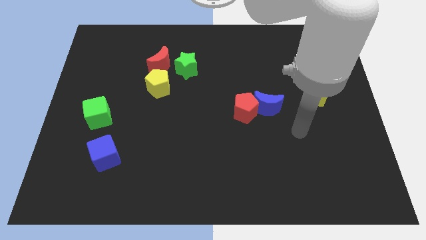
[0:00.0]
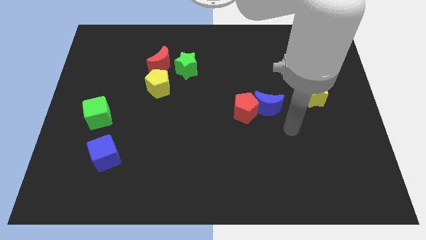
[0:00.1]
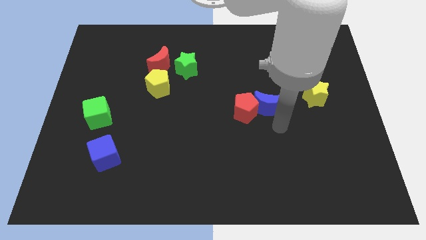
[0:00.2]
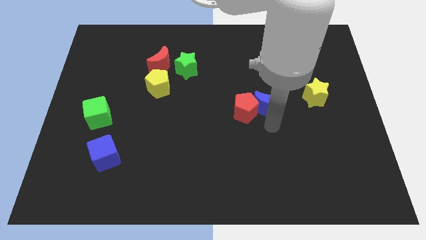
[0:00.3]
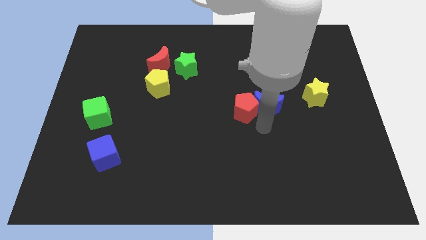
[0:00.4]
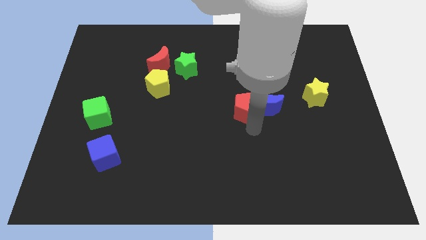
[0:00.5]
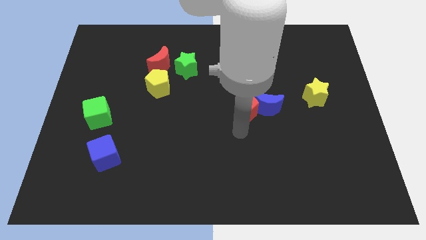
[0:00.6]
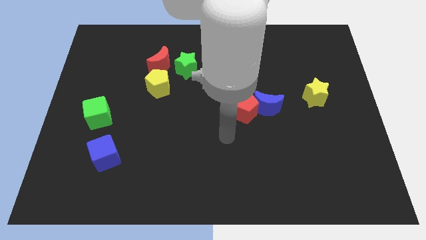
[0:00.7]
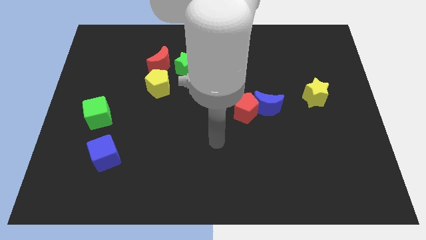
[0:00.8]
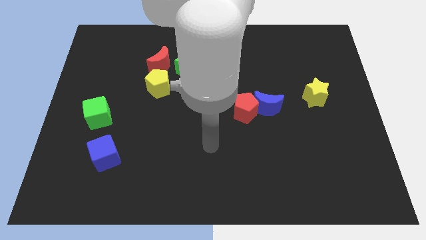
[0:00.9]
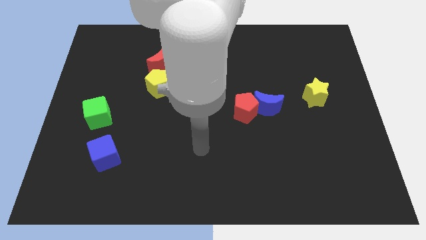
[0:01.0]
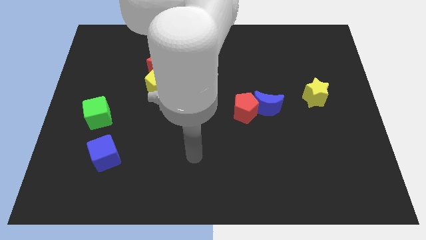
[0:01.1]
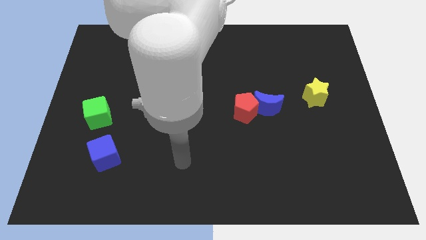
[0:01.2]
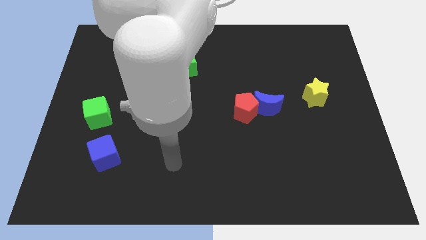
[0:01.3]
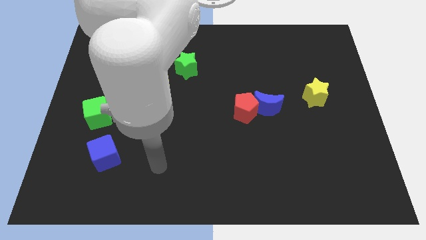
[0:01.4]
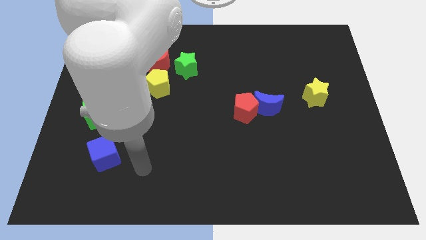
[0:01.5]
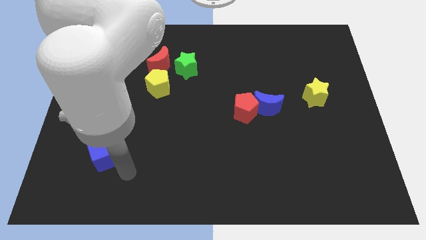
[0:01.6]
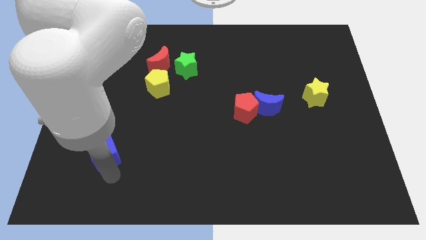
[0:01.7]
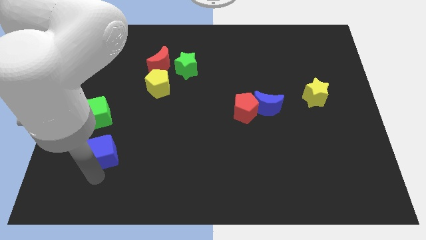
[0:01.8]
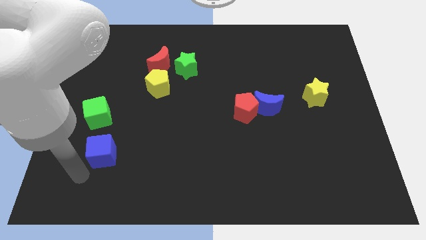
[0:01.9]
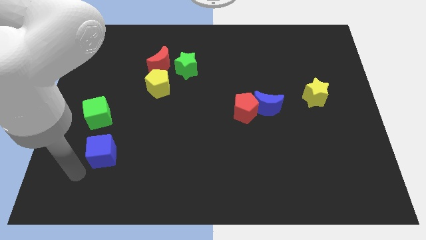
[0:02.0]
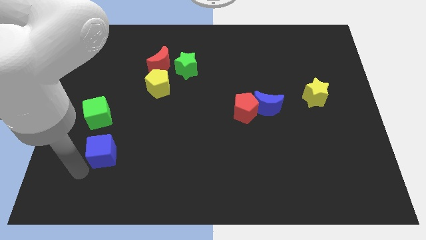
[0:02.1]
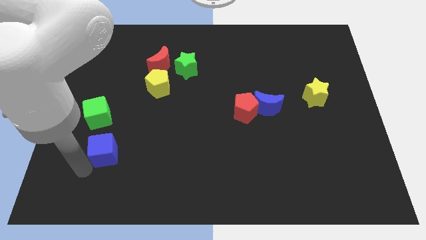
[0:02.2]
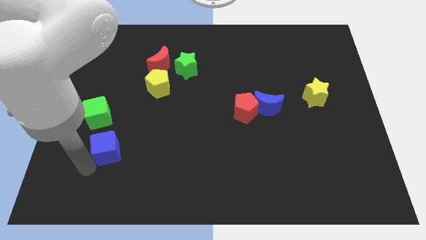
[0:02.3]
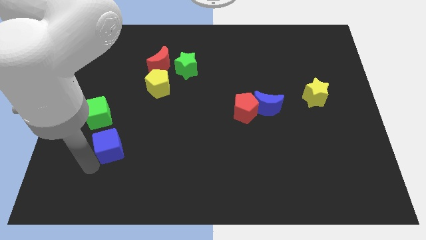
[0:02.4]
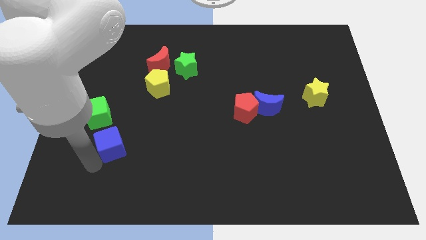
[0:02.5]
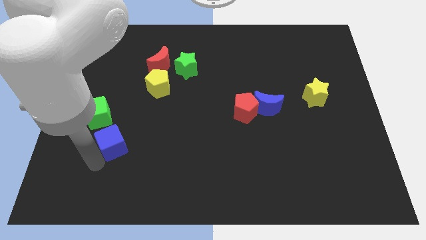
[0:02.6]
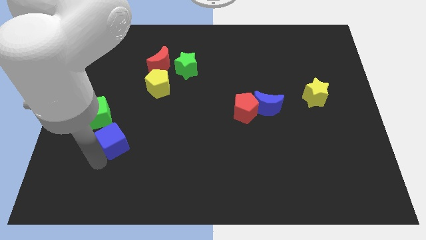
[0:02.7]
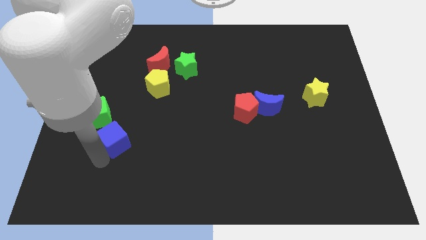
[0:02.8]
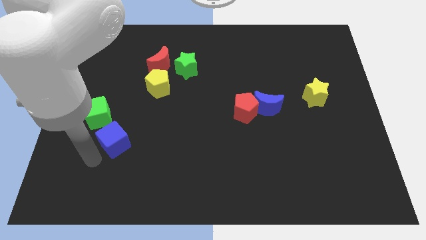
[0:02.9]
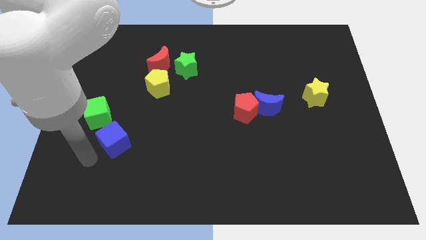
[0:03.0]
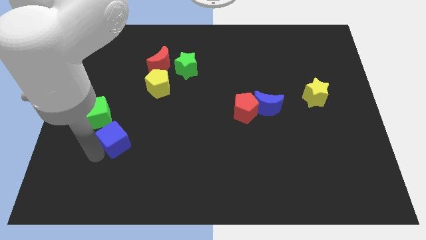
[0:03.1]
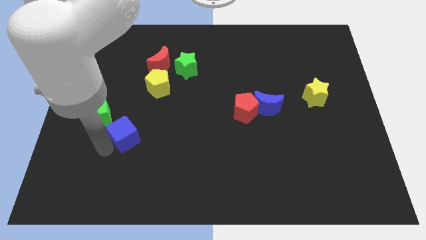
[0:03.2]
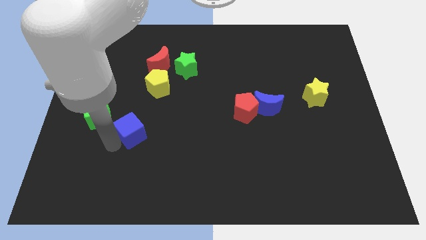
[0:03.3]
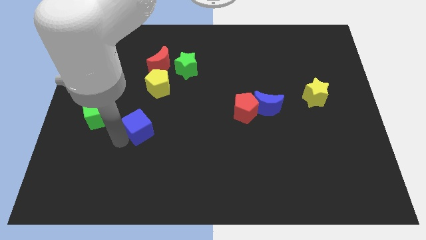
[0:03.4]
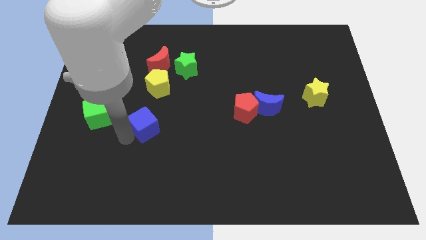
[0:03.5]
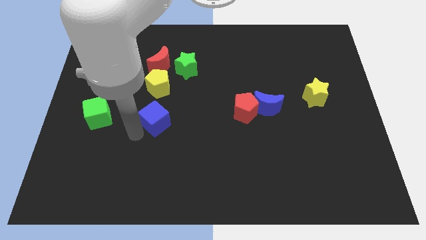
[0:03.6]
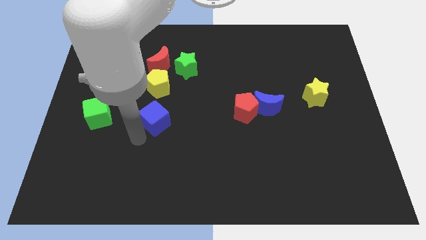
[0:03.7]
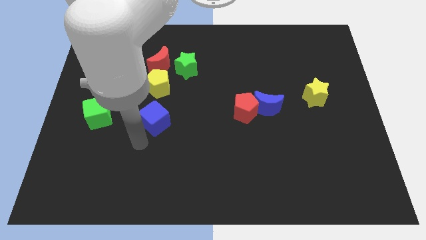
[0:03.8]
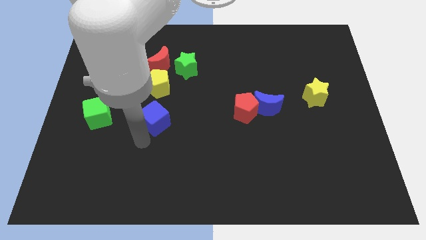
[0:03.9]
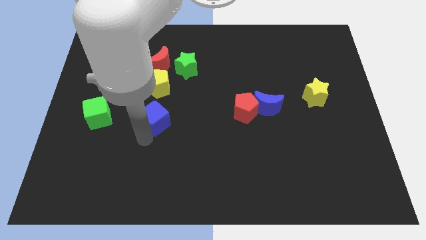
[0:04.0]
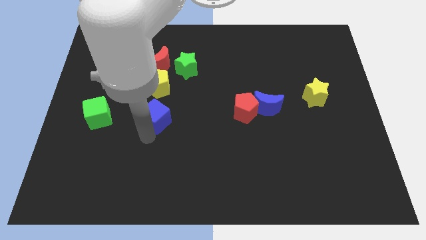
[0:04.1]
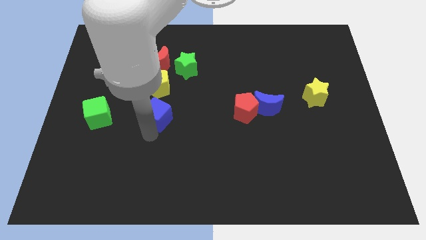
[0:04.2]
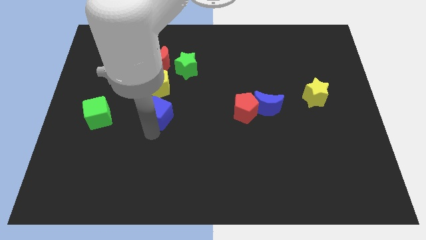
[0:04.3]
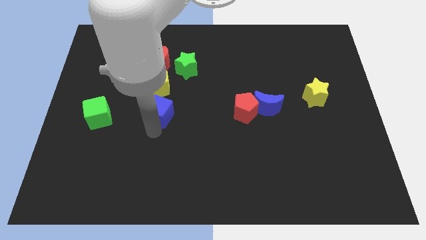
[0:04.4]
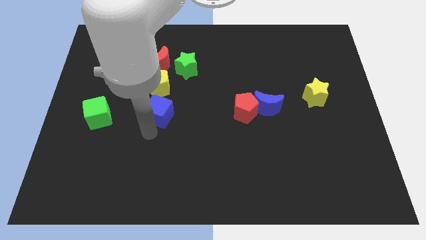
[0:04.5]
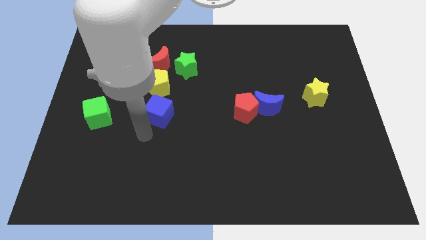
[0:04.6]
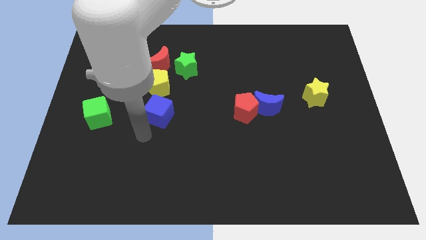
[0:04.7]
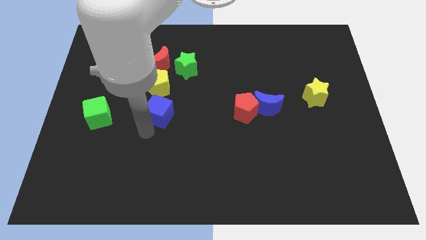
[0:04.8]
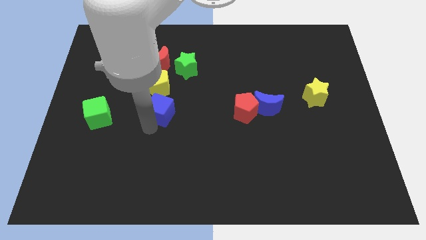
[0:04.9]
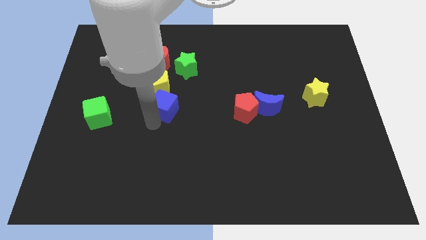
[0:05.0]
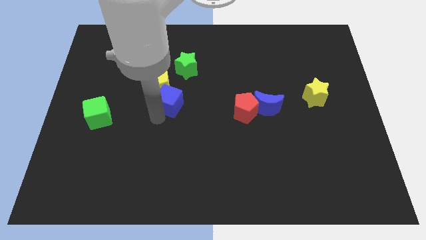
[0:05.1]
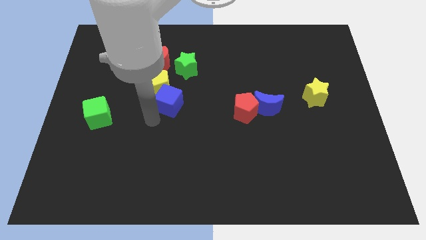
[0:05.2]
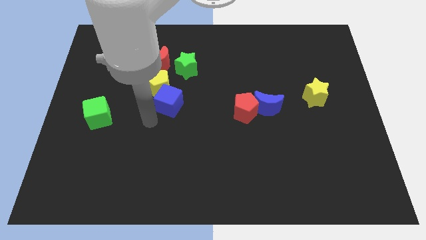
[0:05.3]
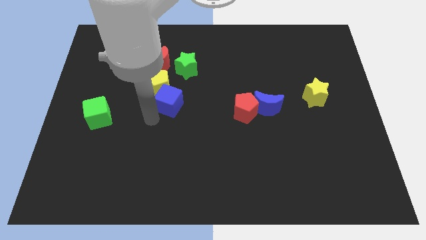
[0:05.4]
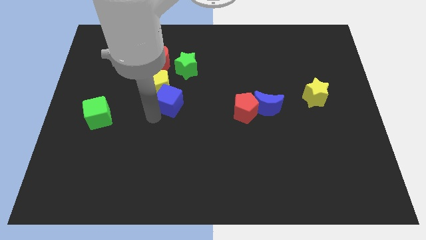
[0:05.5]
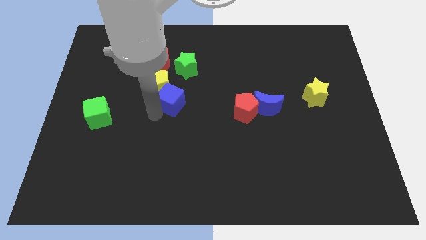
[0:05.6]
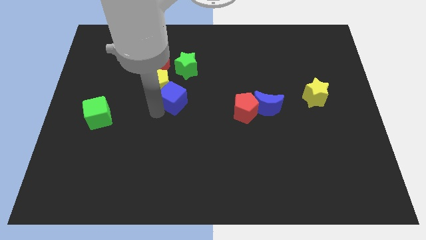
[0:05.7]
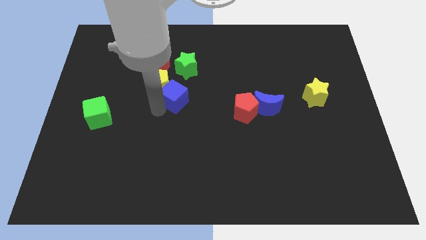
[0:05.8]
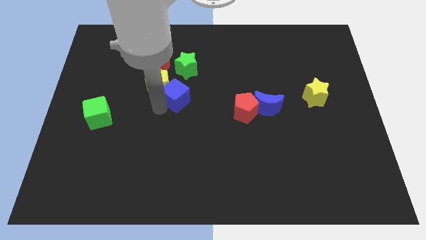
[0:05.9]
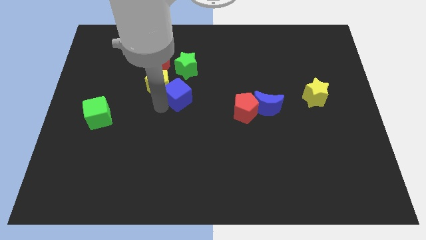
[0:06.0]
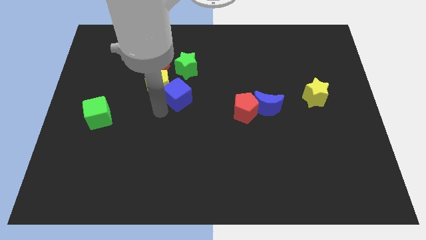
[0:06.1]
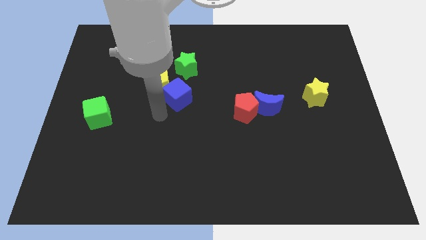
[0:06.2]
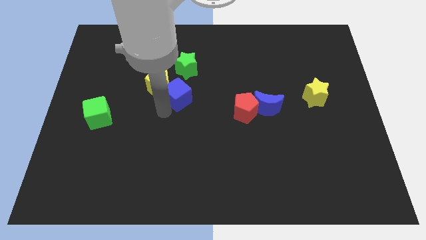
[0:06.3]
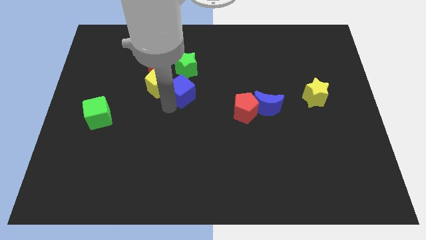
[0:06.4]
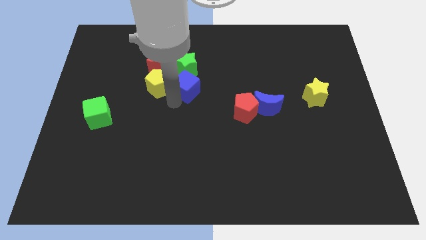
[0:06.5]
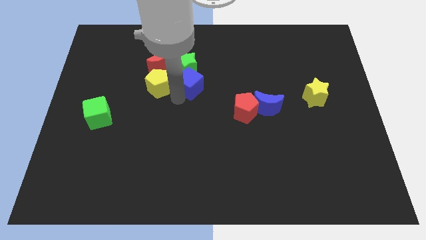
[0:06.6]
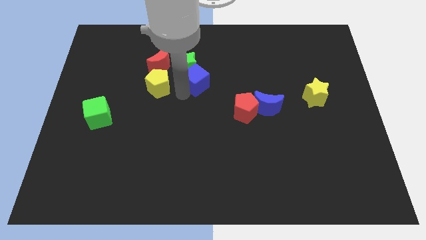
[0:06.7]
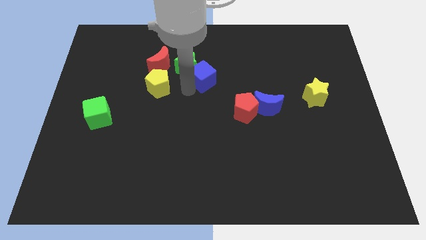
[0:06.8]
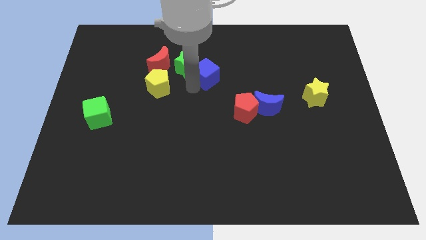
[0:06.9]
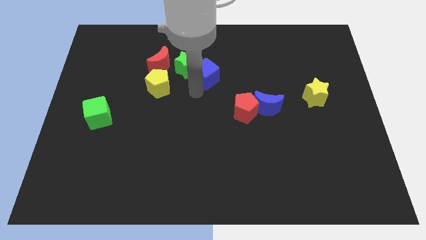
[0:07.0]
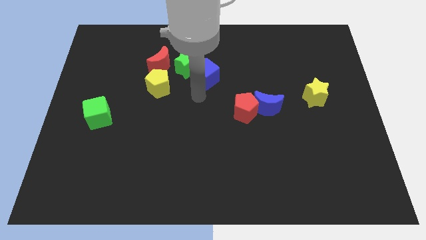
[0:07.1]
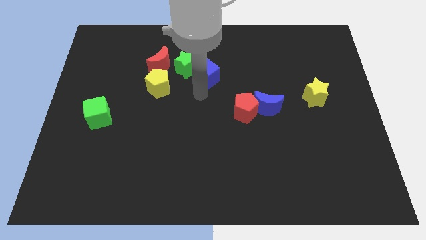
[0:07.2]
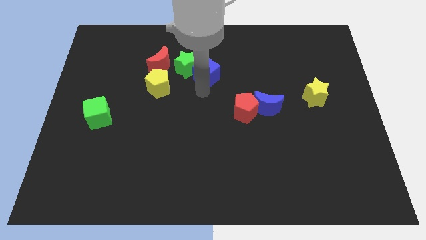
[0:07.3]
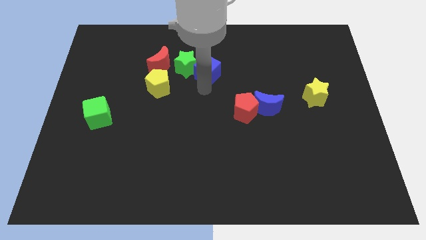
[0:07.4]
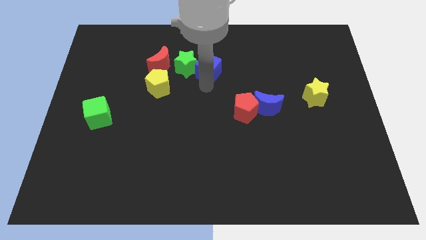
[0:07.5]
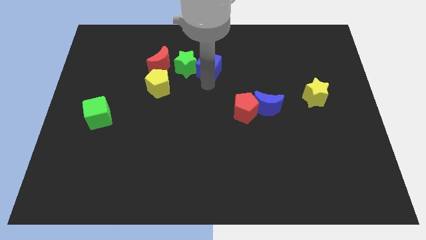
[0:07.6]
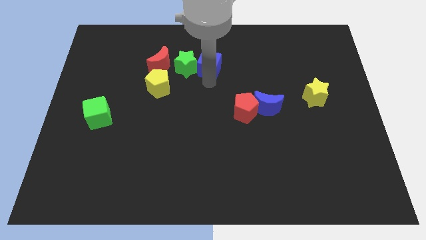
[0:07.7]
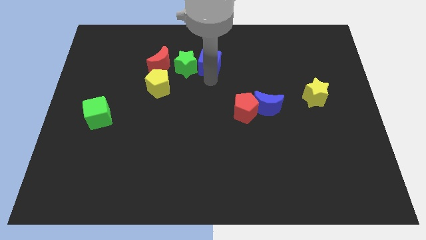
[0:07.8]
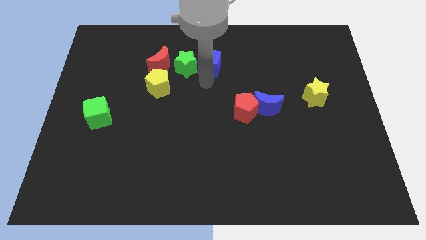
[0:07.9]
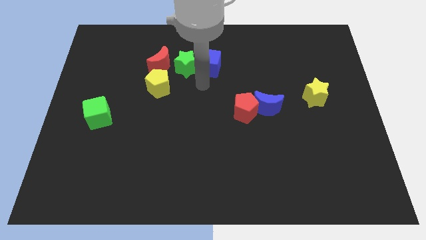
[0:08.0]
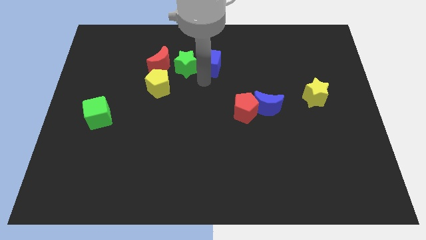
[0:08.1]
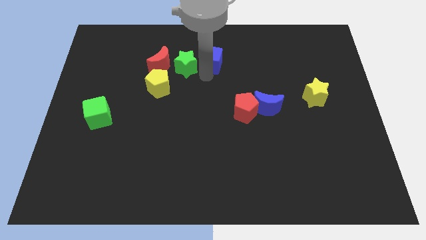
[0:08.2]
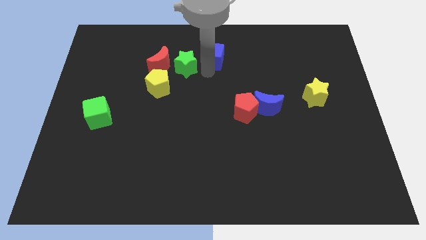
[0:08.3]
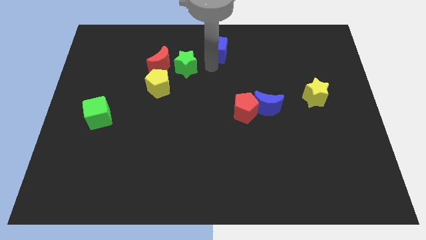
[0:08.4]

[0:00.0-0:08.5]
put the blue cube to the top
